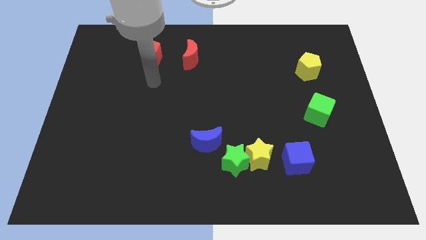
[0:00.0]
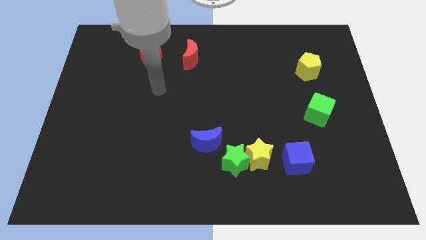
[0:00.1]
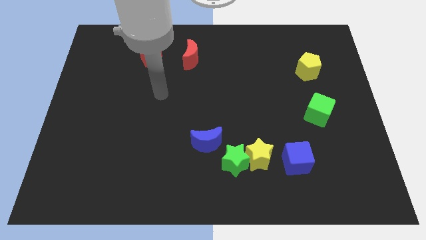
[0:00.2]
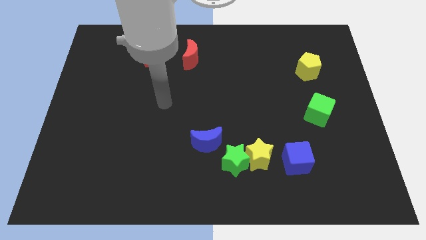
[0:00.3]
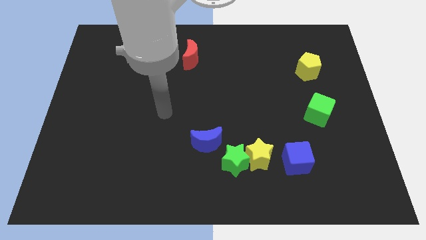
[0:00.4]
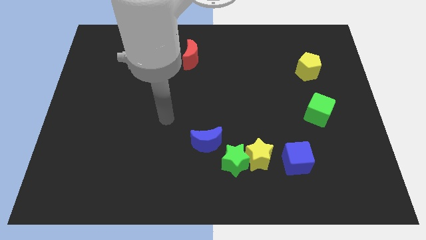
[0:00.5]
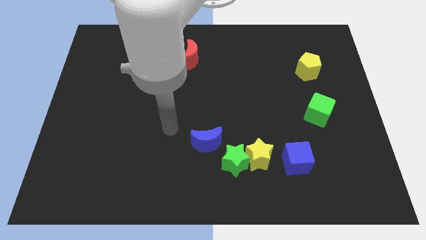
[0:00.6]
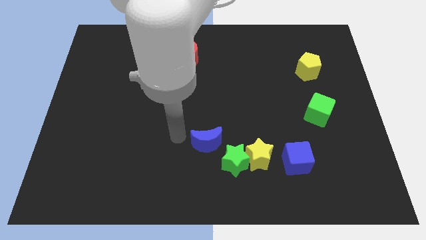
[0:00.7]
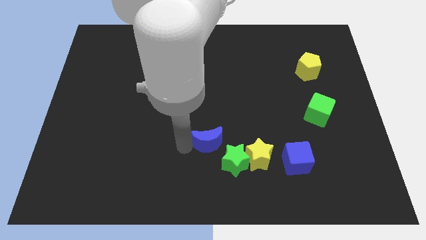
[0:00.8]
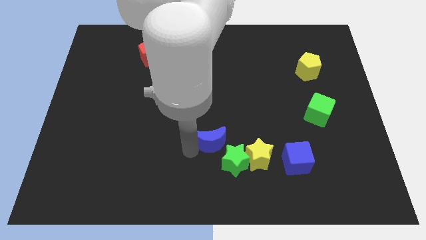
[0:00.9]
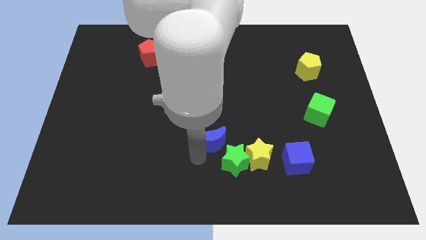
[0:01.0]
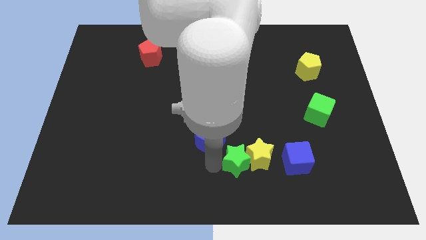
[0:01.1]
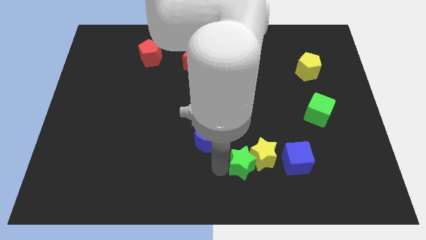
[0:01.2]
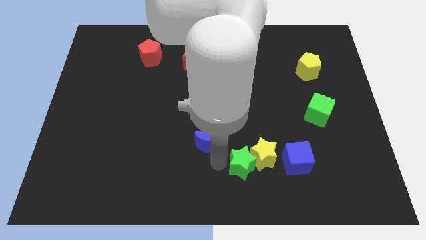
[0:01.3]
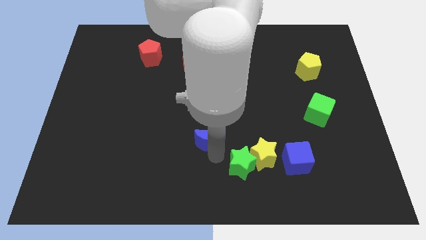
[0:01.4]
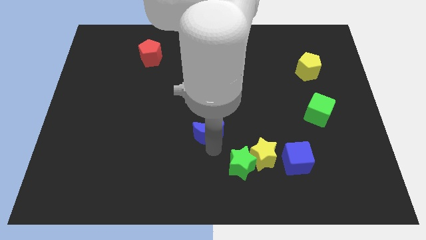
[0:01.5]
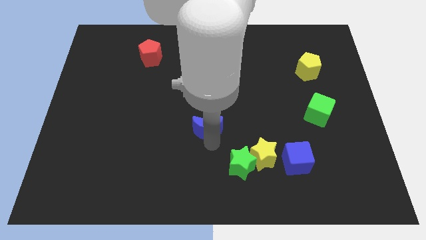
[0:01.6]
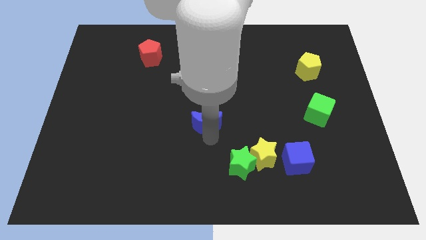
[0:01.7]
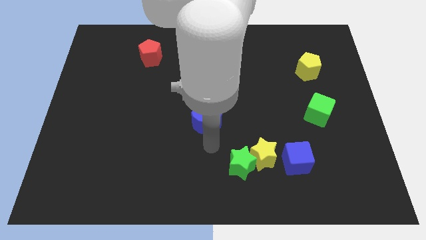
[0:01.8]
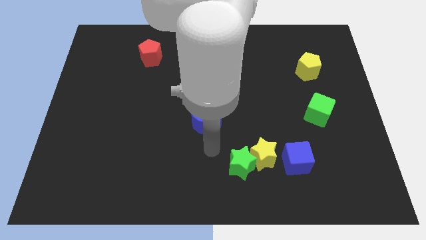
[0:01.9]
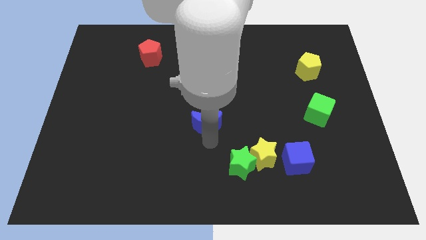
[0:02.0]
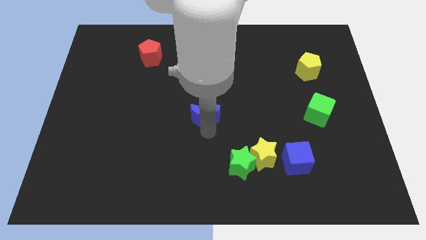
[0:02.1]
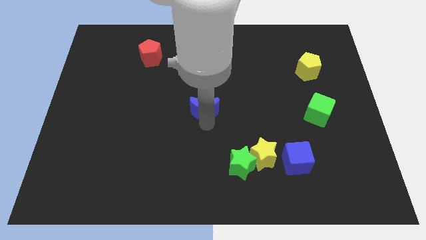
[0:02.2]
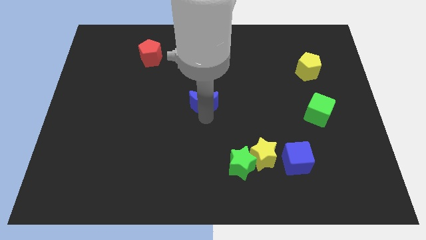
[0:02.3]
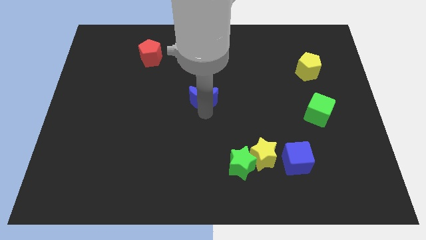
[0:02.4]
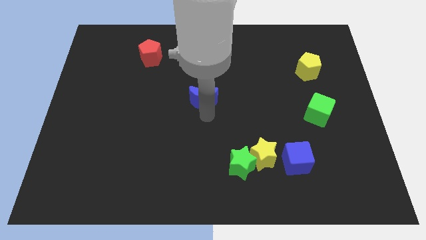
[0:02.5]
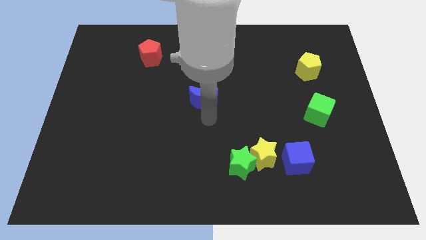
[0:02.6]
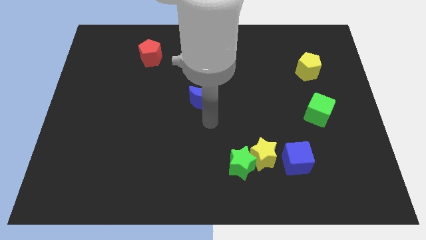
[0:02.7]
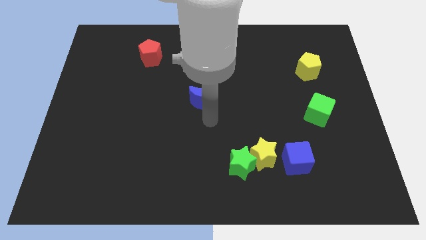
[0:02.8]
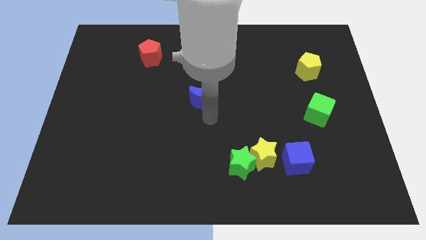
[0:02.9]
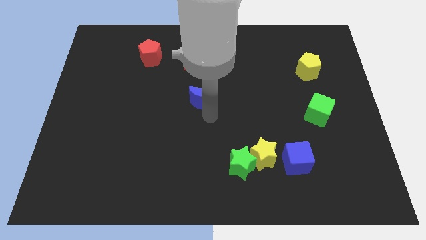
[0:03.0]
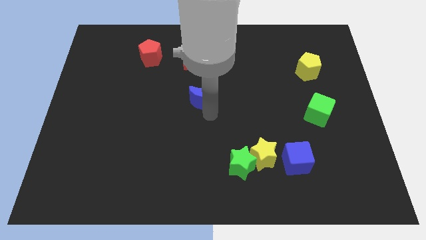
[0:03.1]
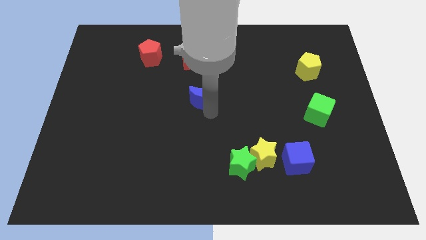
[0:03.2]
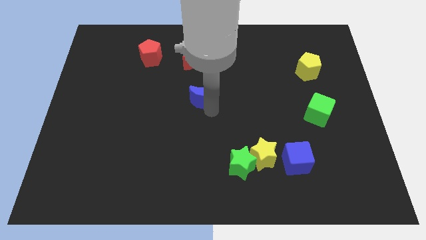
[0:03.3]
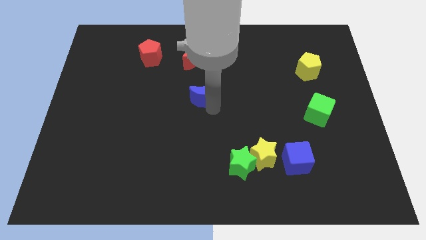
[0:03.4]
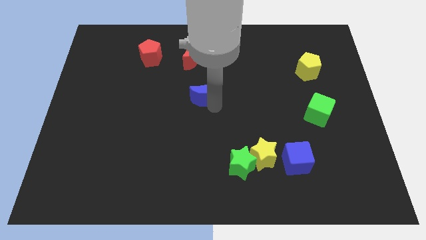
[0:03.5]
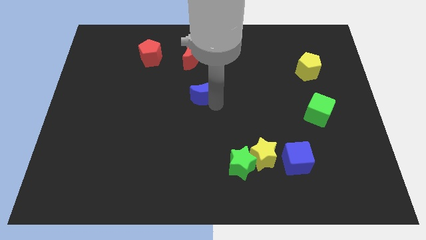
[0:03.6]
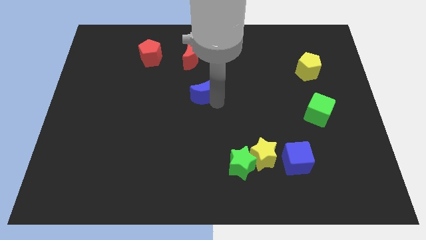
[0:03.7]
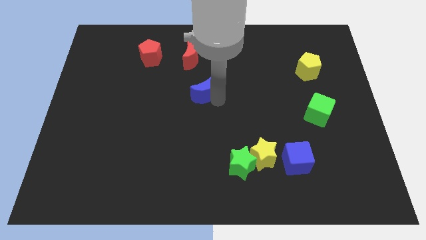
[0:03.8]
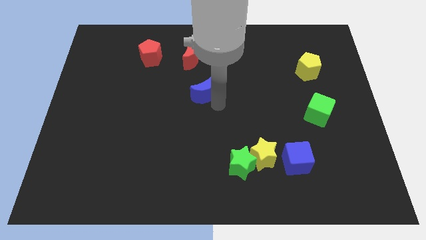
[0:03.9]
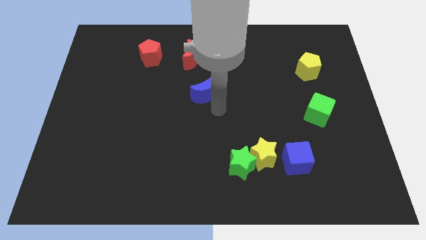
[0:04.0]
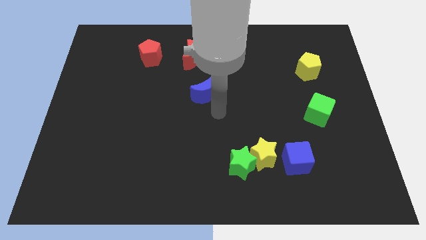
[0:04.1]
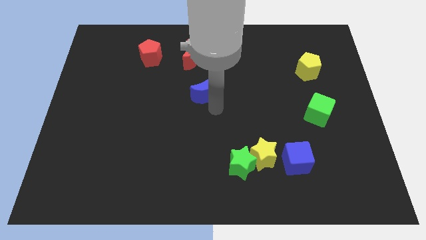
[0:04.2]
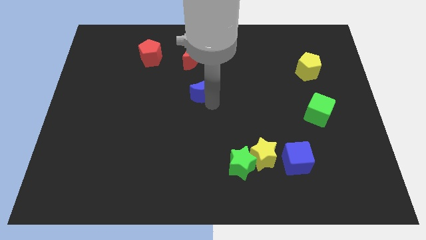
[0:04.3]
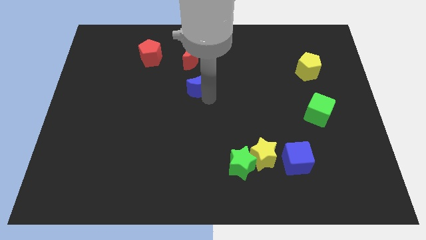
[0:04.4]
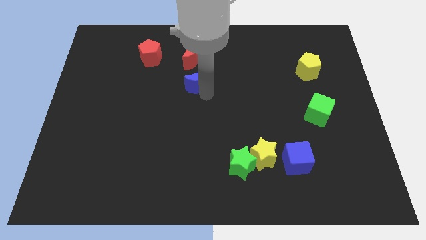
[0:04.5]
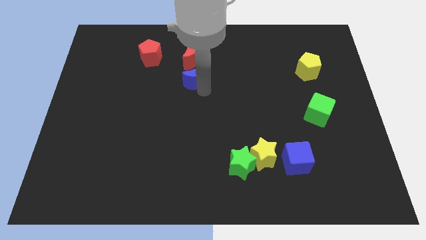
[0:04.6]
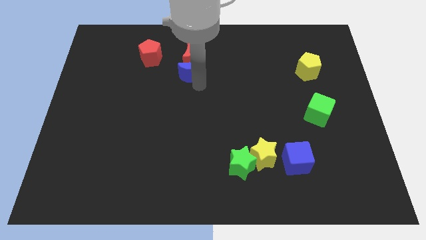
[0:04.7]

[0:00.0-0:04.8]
move the blue moon close to the red moon

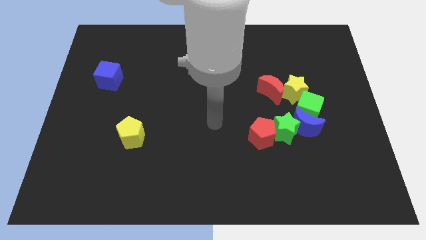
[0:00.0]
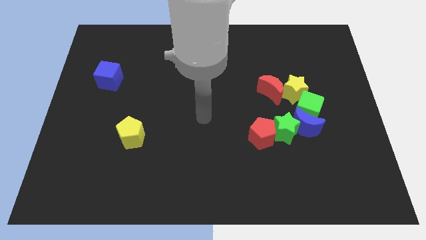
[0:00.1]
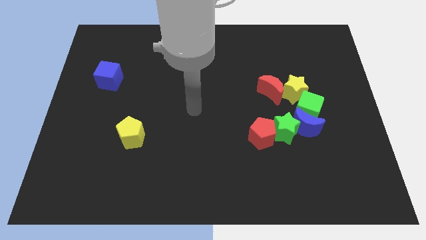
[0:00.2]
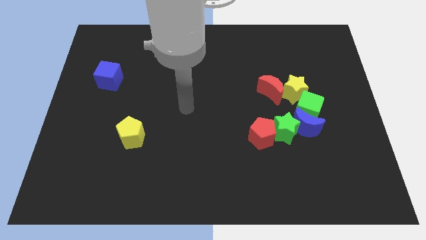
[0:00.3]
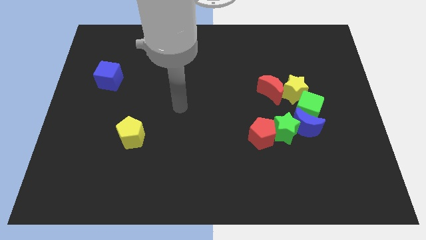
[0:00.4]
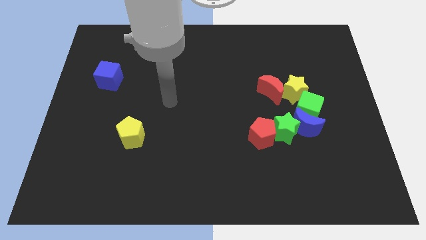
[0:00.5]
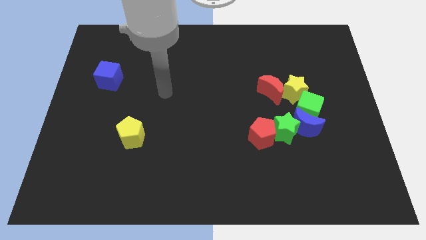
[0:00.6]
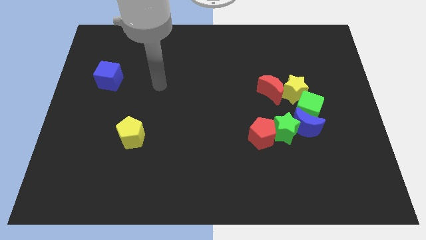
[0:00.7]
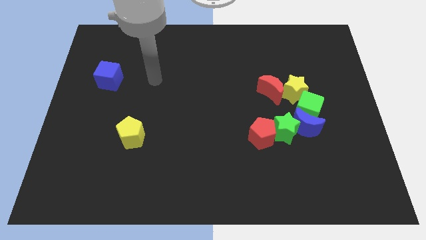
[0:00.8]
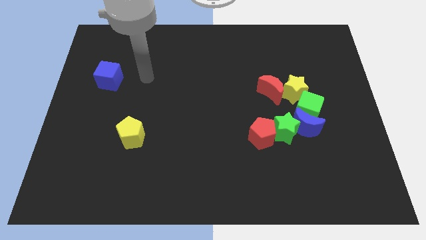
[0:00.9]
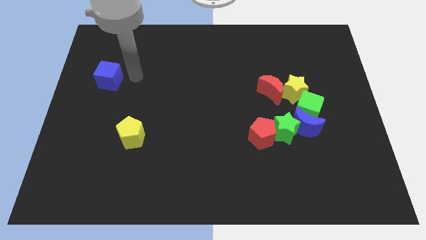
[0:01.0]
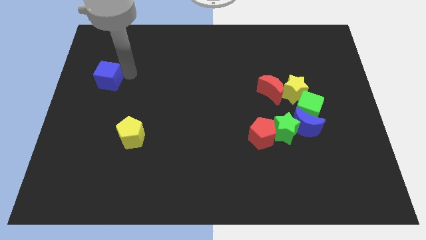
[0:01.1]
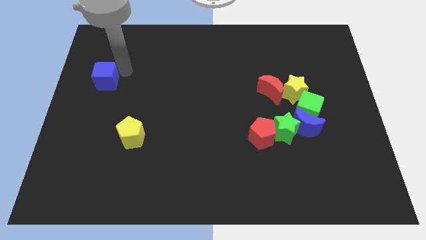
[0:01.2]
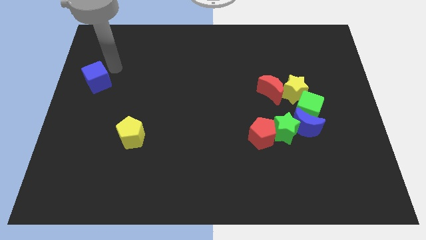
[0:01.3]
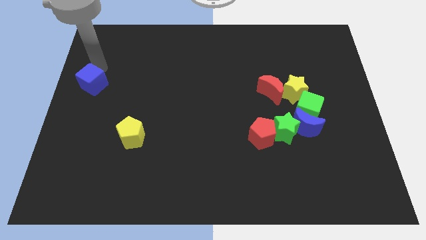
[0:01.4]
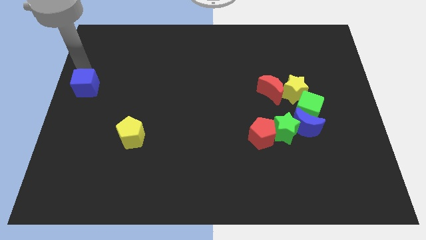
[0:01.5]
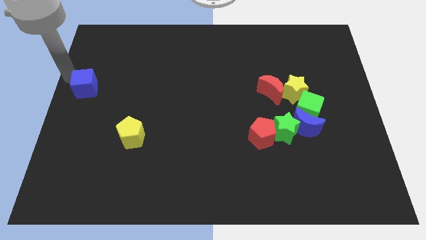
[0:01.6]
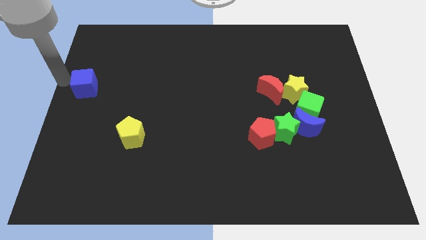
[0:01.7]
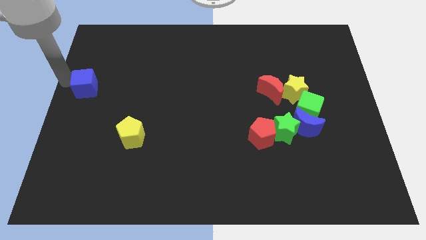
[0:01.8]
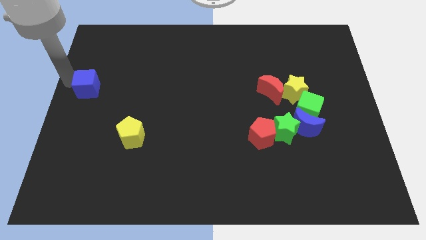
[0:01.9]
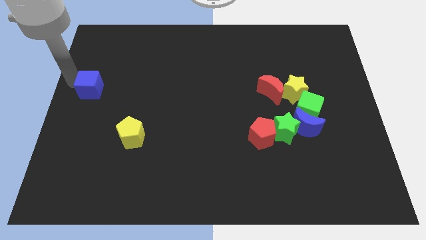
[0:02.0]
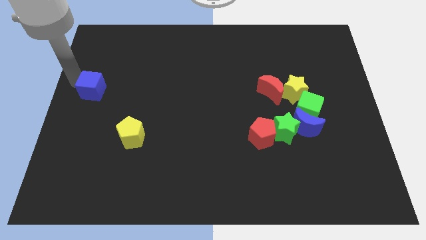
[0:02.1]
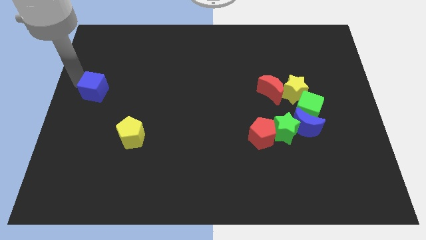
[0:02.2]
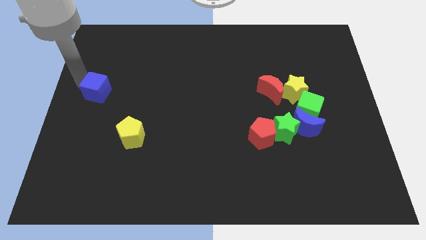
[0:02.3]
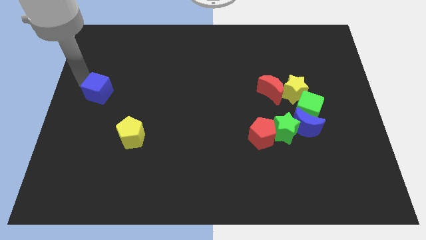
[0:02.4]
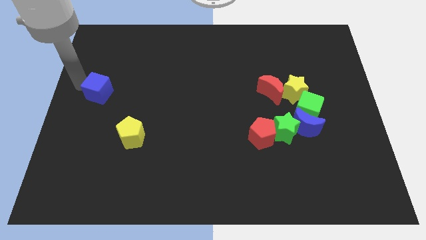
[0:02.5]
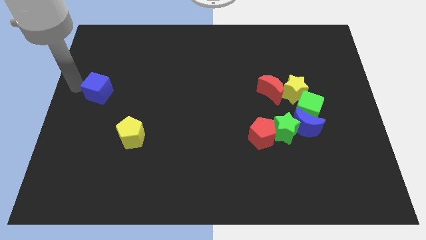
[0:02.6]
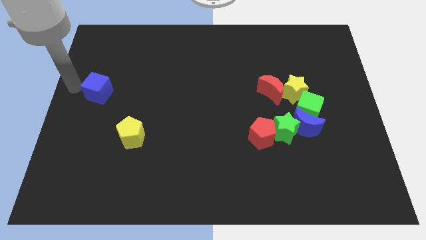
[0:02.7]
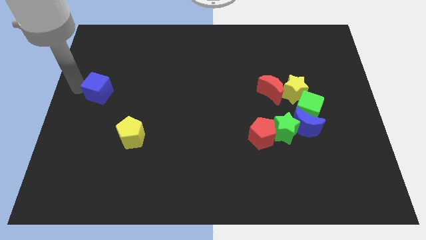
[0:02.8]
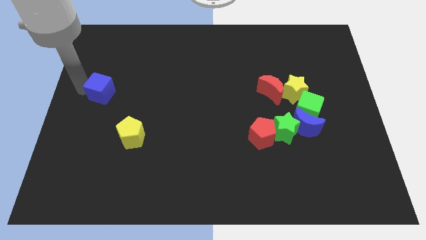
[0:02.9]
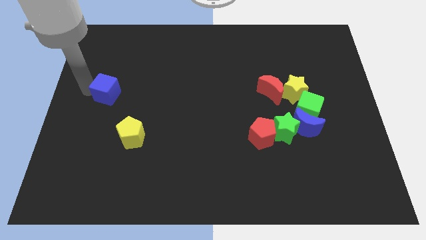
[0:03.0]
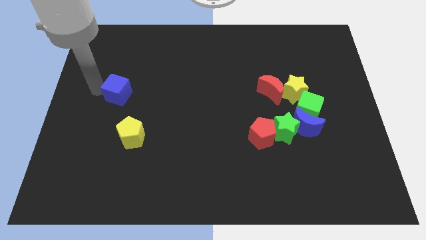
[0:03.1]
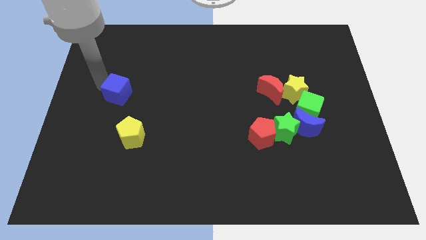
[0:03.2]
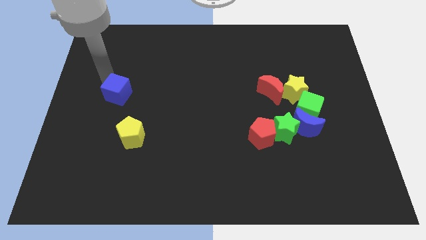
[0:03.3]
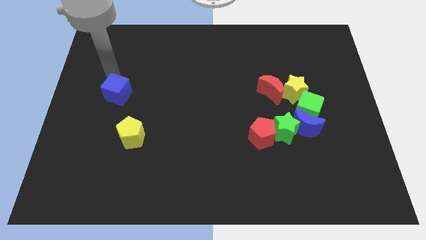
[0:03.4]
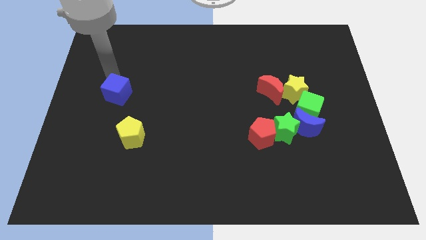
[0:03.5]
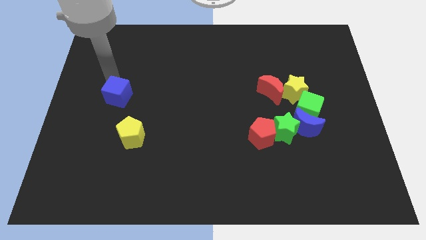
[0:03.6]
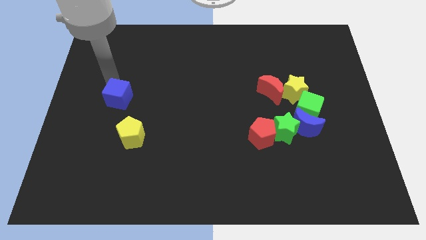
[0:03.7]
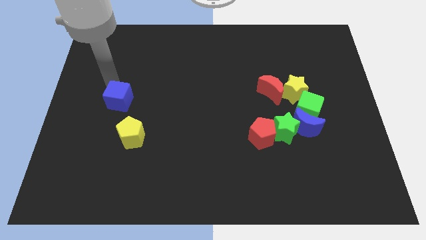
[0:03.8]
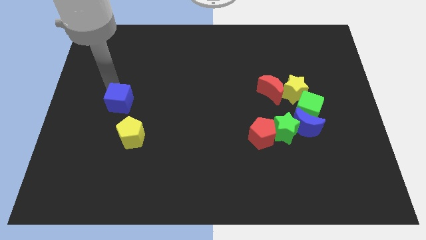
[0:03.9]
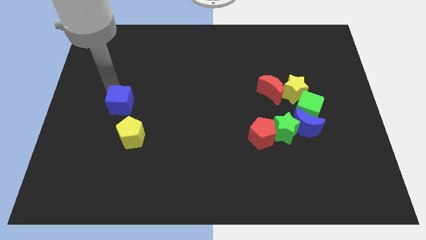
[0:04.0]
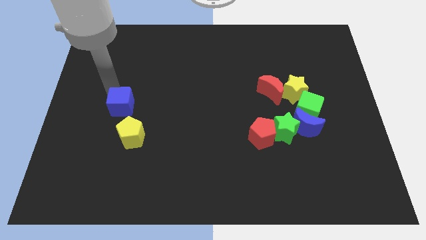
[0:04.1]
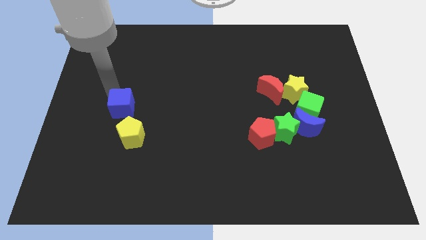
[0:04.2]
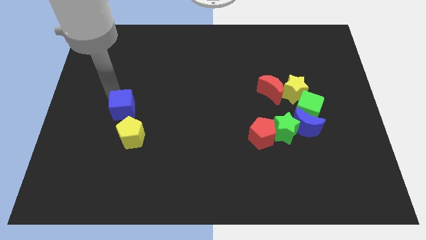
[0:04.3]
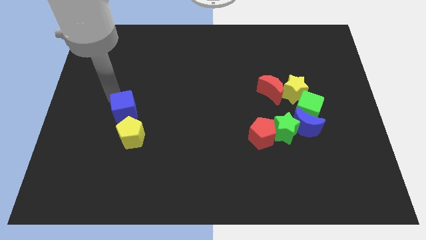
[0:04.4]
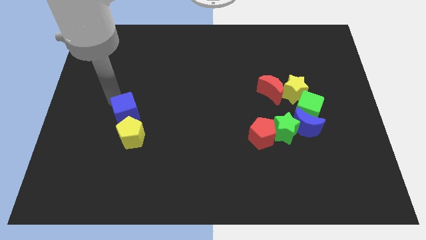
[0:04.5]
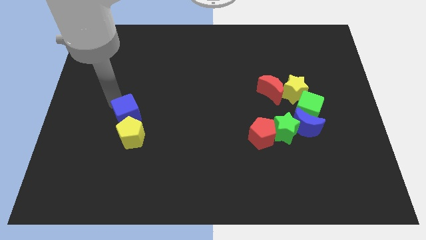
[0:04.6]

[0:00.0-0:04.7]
move the blue cube to the yellow pentagon
